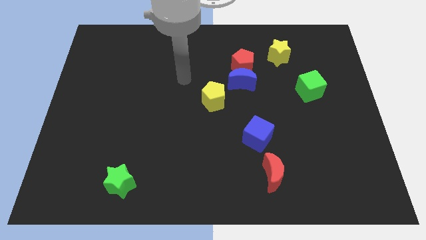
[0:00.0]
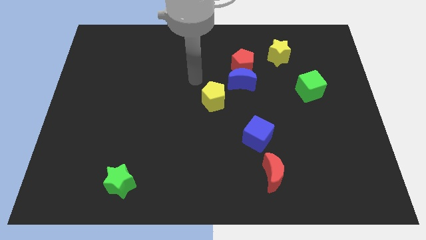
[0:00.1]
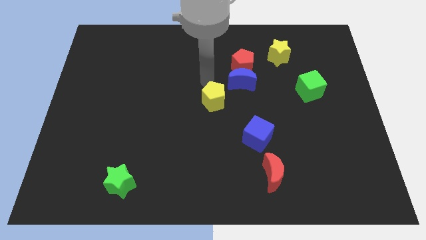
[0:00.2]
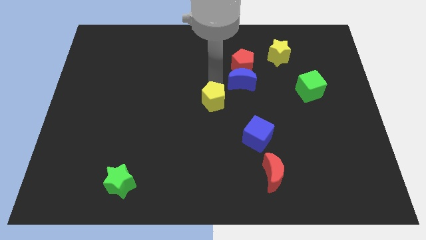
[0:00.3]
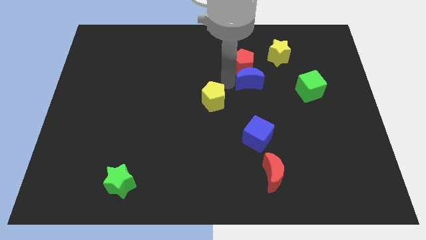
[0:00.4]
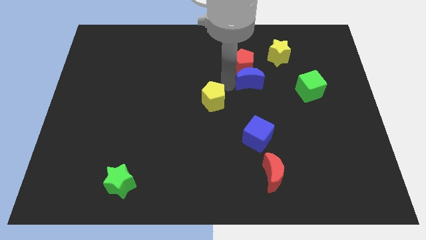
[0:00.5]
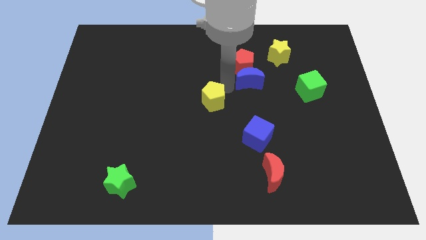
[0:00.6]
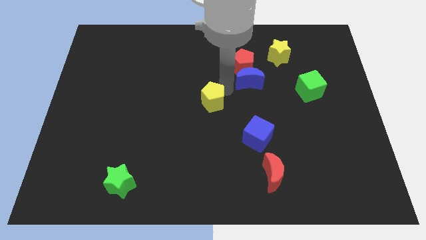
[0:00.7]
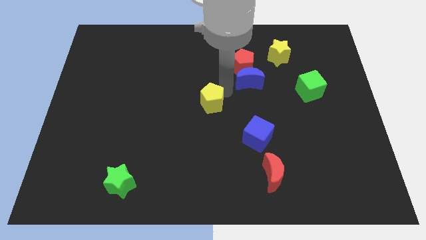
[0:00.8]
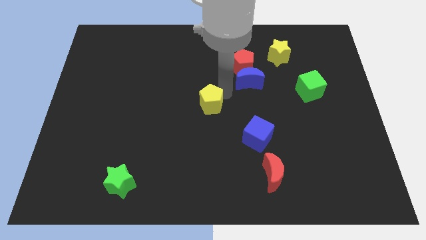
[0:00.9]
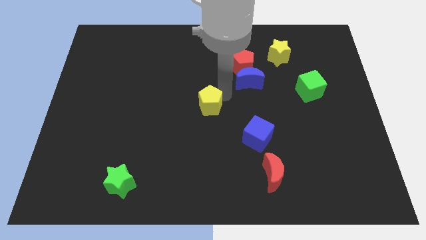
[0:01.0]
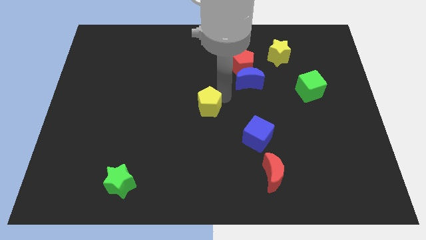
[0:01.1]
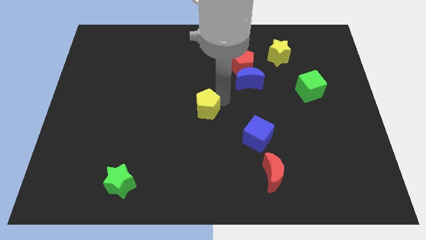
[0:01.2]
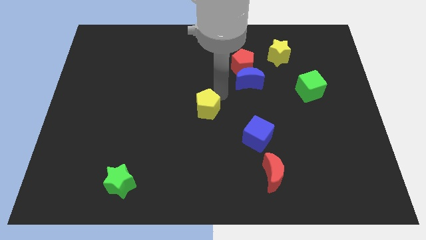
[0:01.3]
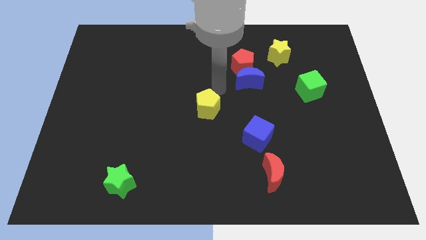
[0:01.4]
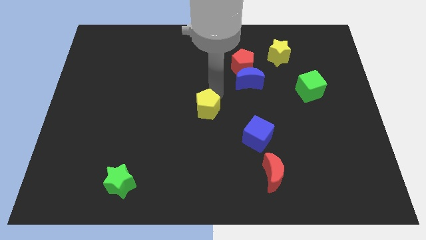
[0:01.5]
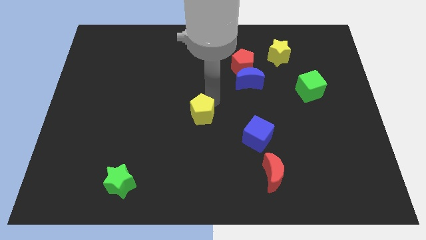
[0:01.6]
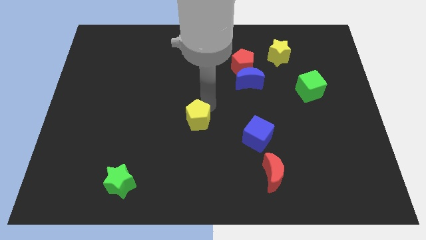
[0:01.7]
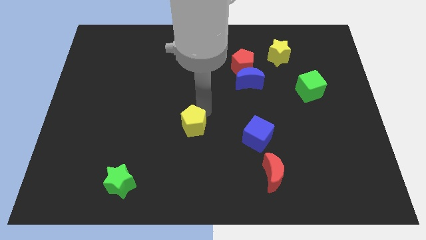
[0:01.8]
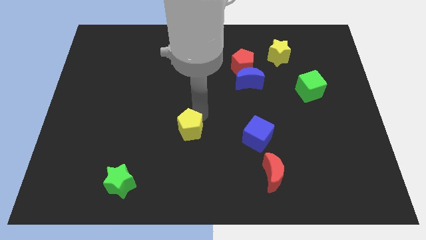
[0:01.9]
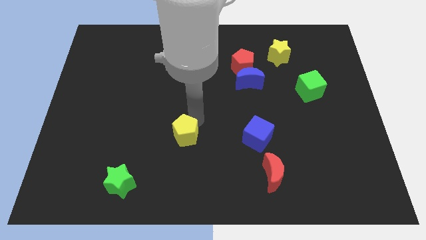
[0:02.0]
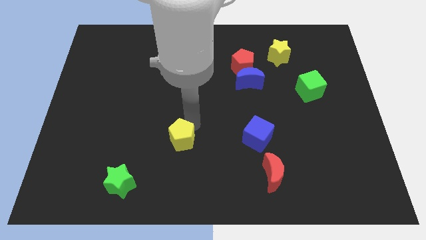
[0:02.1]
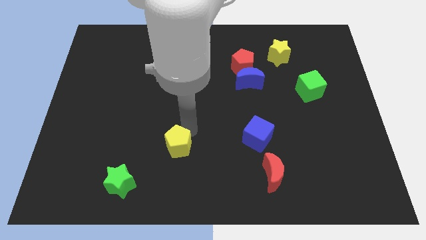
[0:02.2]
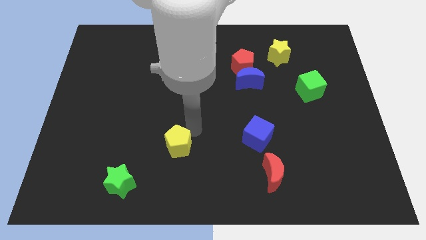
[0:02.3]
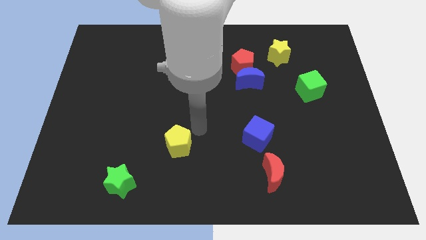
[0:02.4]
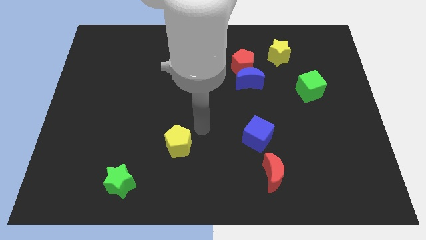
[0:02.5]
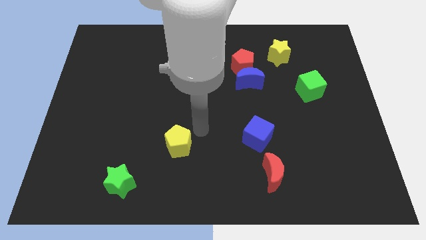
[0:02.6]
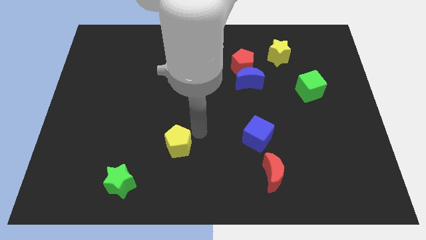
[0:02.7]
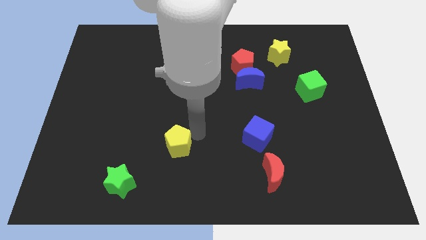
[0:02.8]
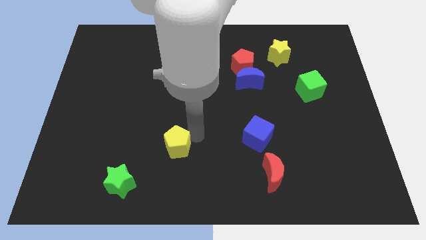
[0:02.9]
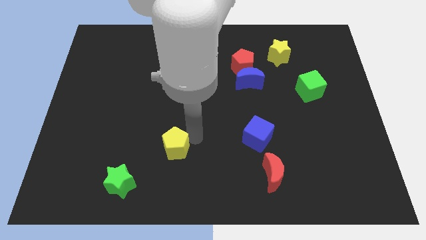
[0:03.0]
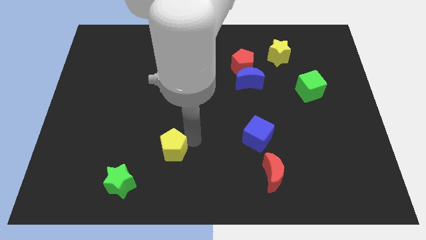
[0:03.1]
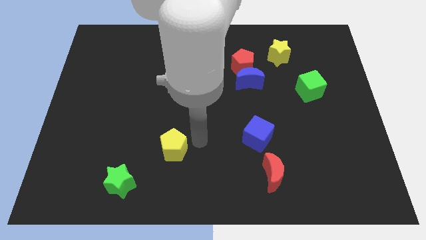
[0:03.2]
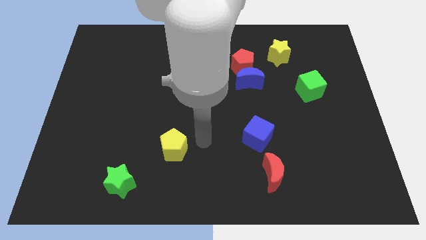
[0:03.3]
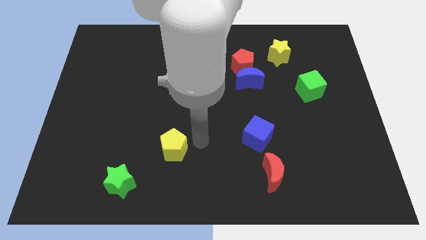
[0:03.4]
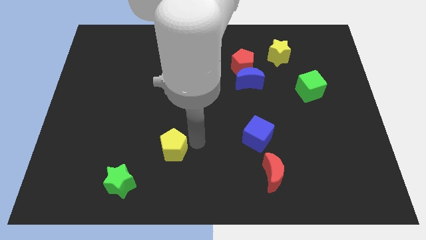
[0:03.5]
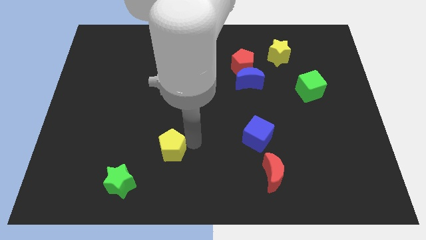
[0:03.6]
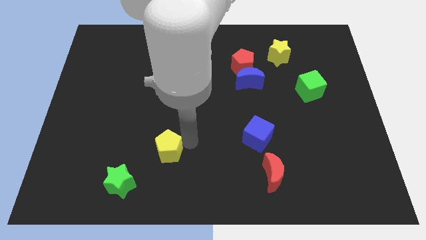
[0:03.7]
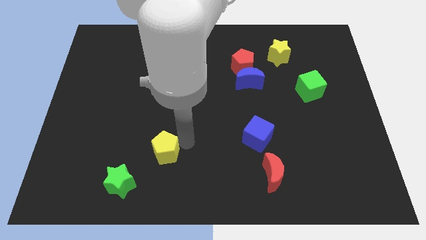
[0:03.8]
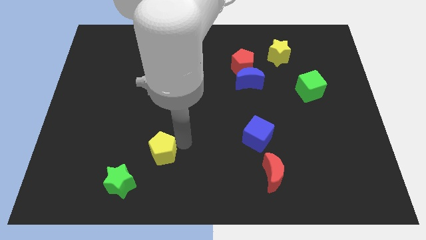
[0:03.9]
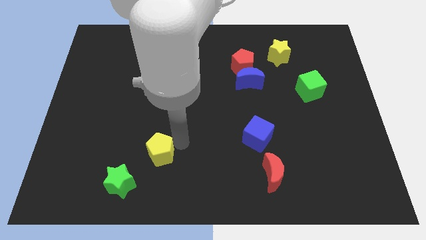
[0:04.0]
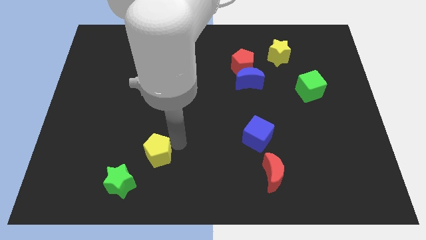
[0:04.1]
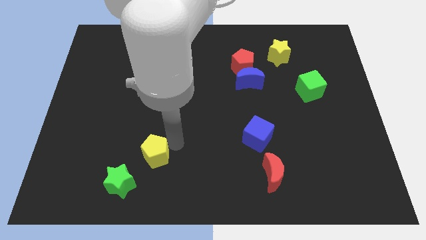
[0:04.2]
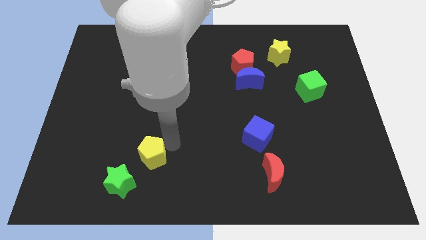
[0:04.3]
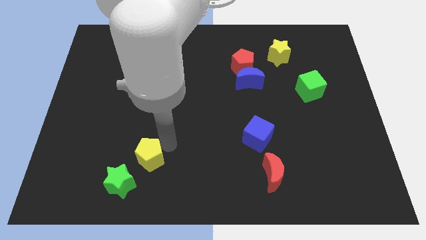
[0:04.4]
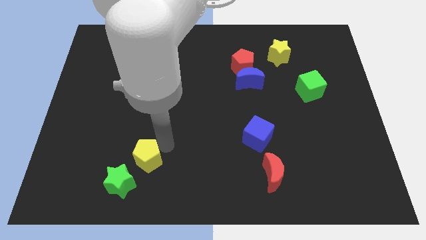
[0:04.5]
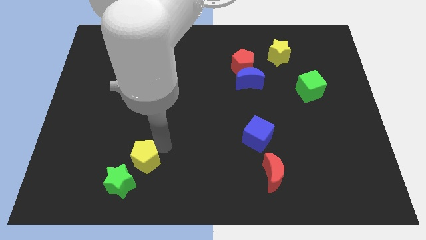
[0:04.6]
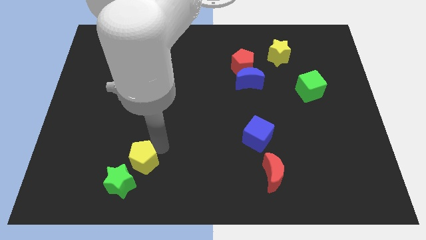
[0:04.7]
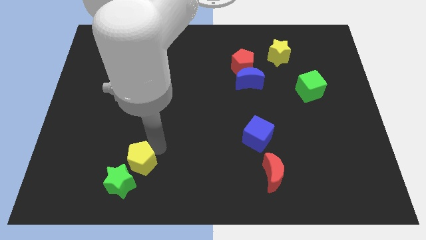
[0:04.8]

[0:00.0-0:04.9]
slide the yellow pentagon next to the green star

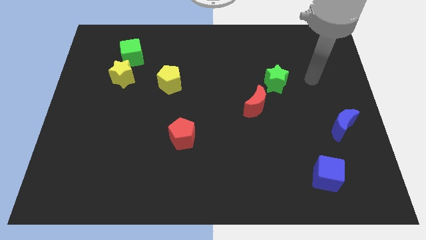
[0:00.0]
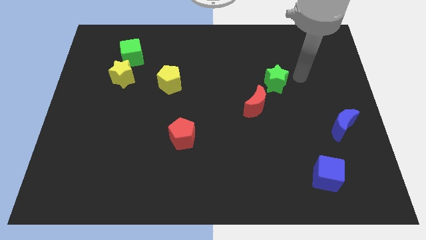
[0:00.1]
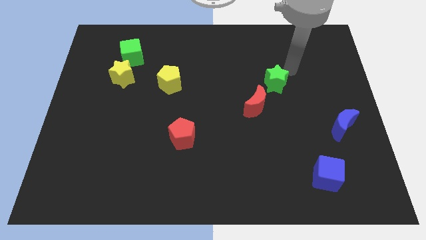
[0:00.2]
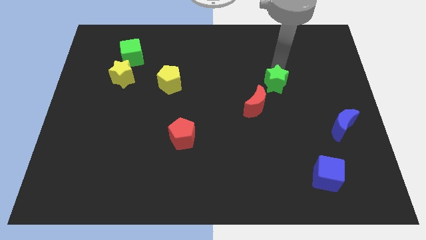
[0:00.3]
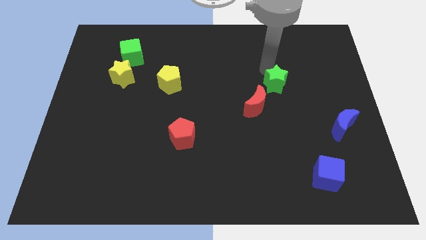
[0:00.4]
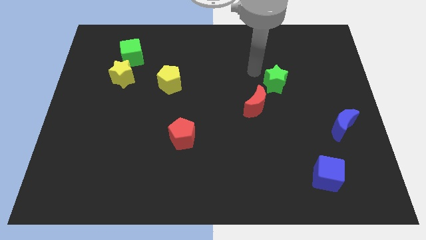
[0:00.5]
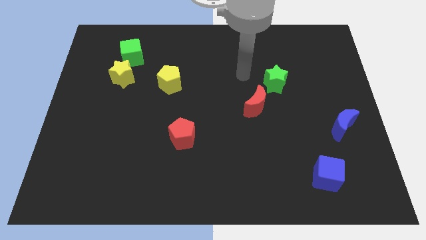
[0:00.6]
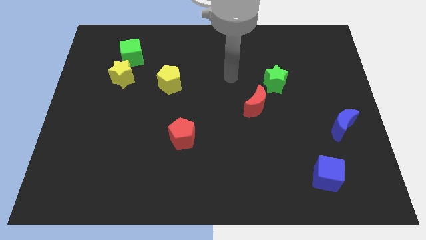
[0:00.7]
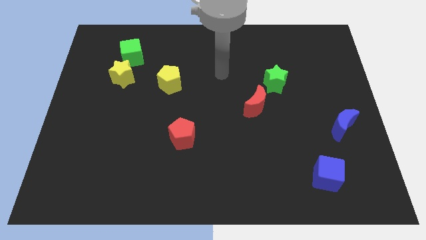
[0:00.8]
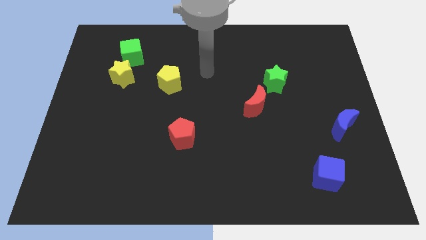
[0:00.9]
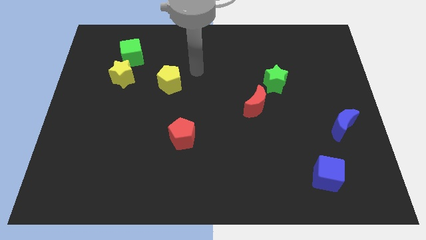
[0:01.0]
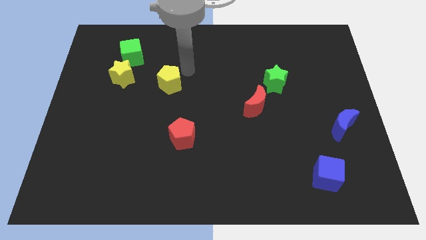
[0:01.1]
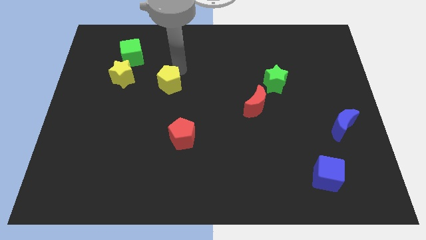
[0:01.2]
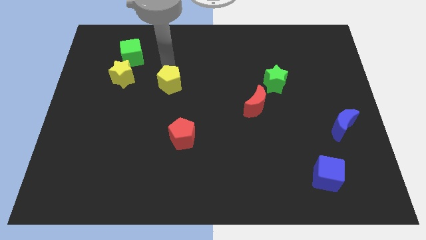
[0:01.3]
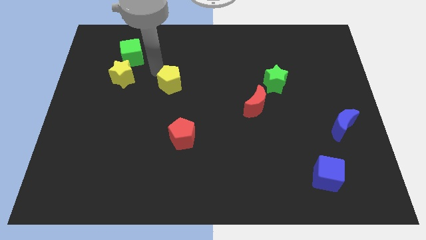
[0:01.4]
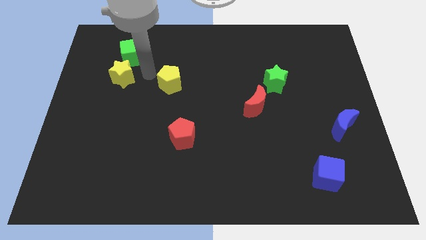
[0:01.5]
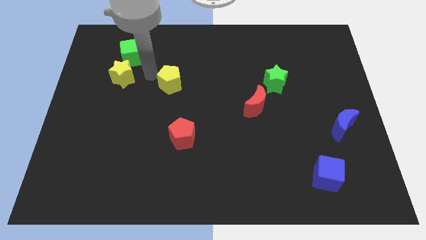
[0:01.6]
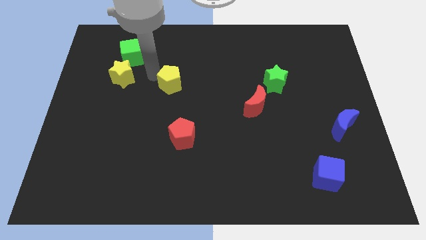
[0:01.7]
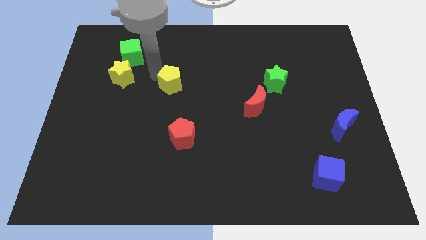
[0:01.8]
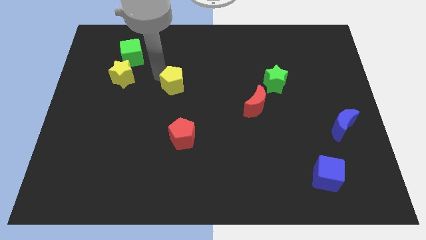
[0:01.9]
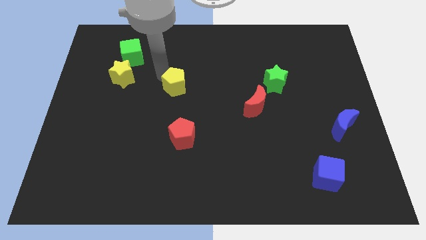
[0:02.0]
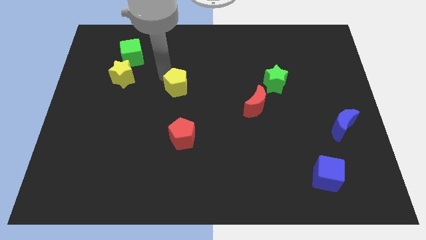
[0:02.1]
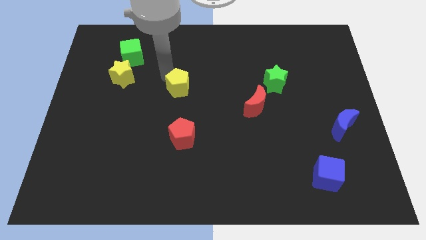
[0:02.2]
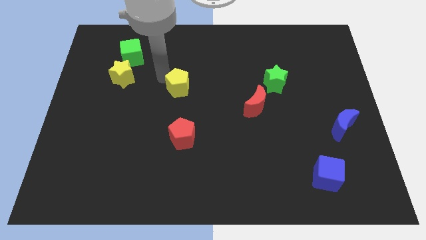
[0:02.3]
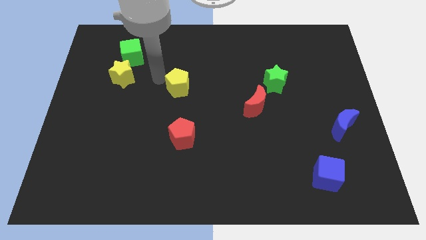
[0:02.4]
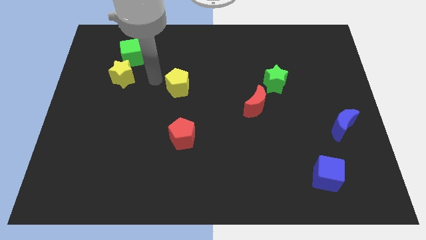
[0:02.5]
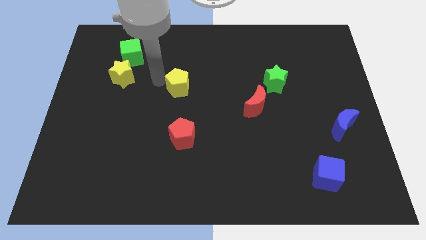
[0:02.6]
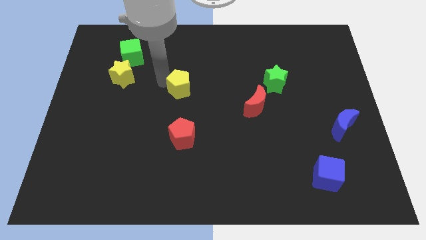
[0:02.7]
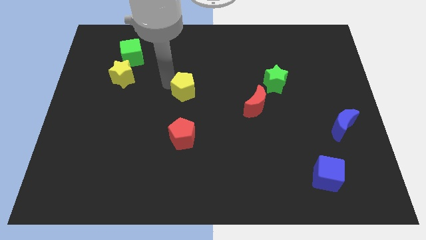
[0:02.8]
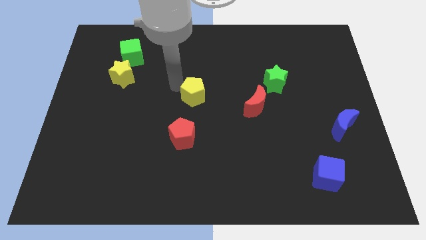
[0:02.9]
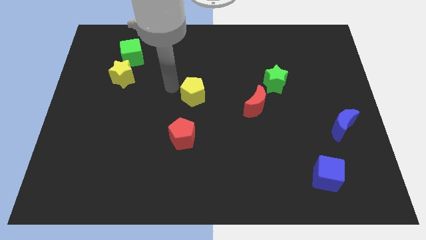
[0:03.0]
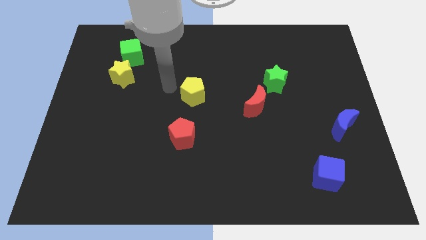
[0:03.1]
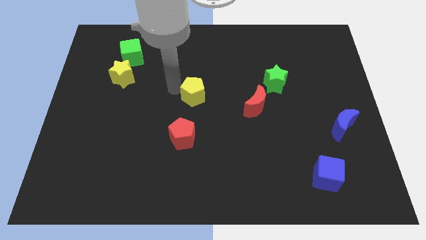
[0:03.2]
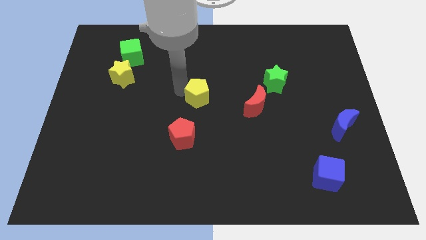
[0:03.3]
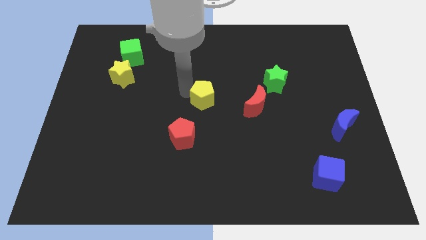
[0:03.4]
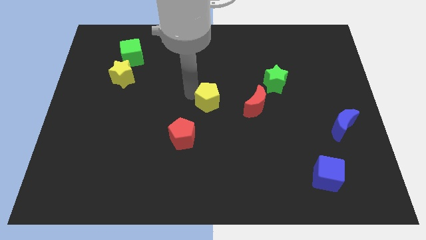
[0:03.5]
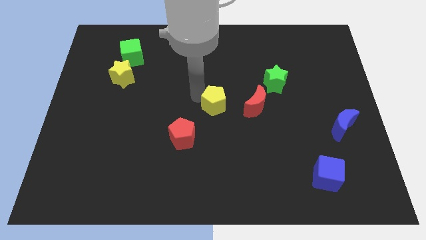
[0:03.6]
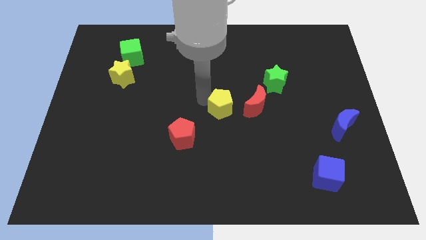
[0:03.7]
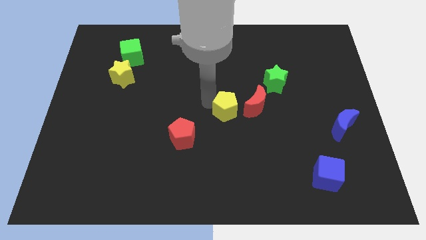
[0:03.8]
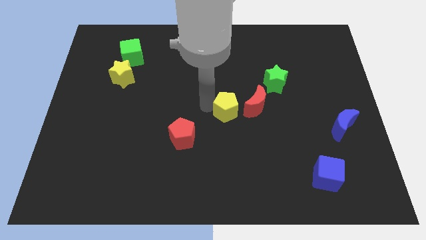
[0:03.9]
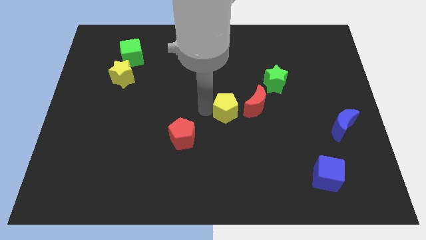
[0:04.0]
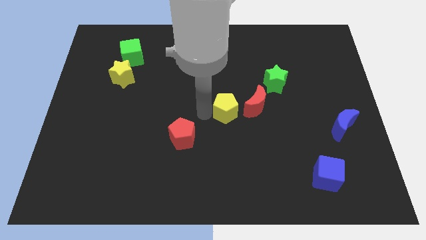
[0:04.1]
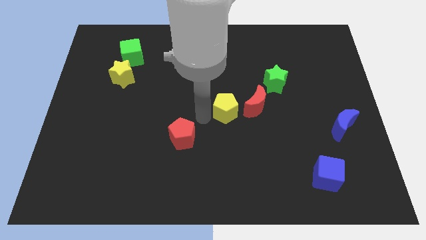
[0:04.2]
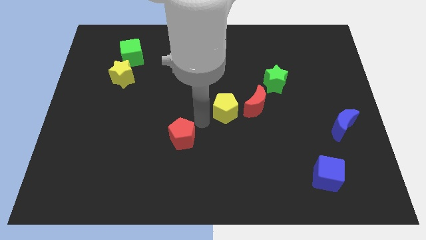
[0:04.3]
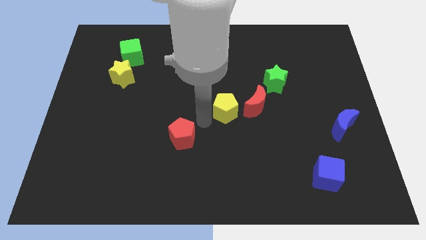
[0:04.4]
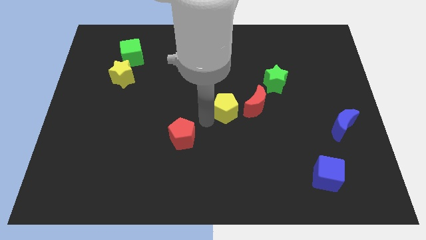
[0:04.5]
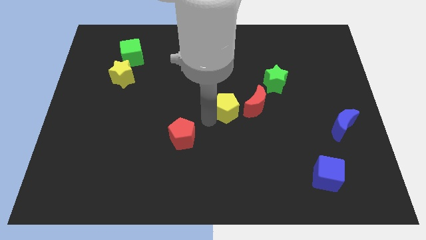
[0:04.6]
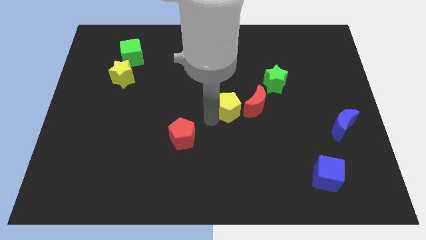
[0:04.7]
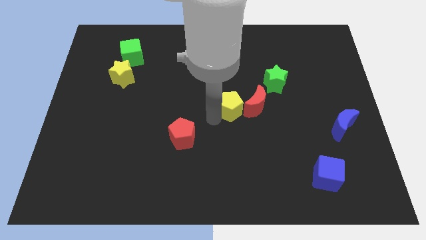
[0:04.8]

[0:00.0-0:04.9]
move the yellow pentagon close to the red moon
